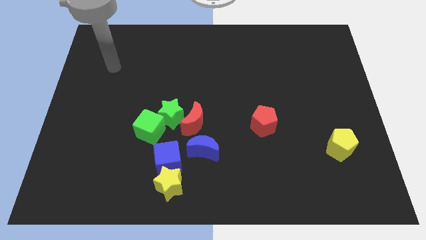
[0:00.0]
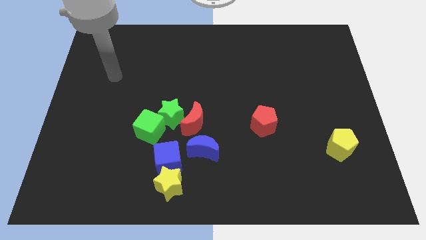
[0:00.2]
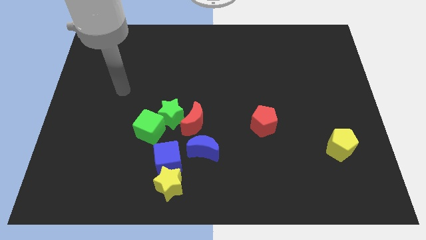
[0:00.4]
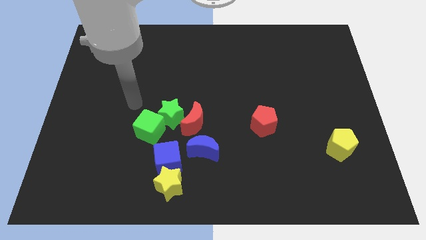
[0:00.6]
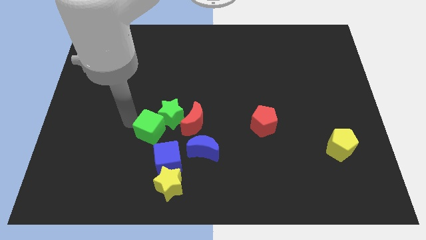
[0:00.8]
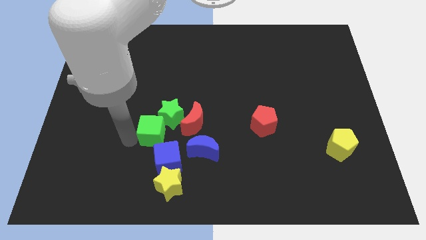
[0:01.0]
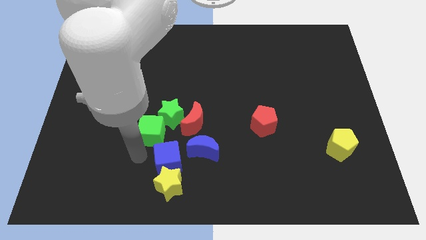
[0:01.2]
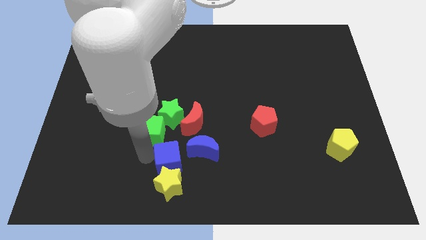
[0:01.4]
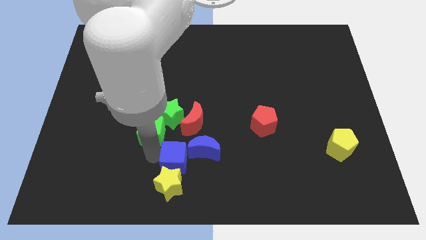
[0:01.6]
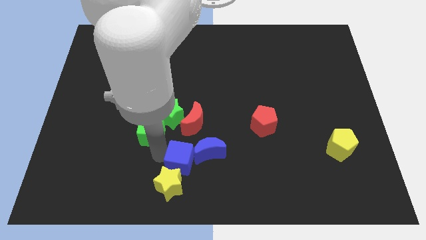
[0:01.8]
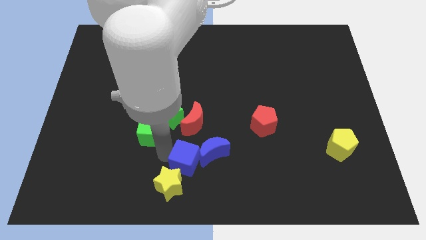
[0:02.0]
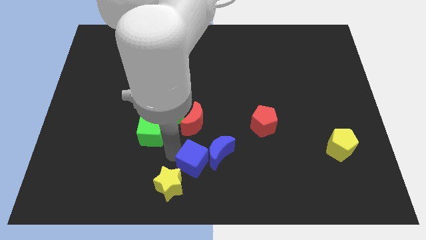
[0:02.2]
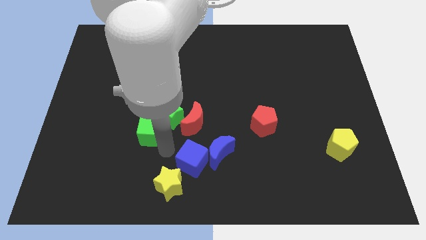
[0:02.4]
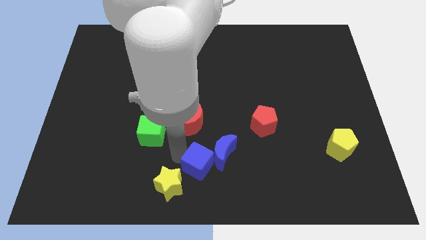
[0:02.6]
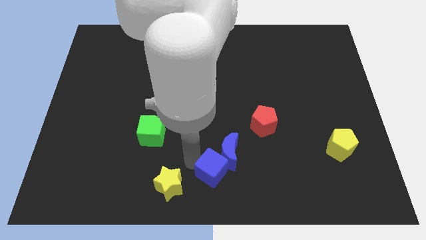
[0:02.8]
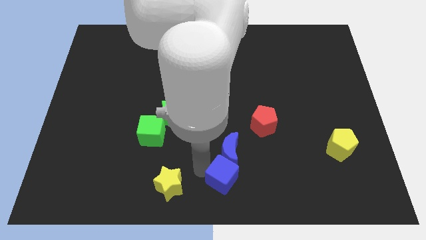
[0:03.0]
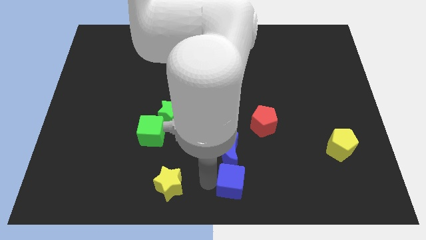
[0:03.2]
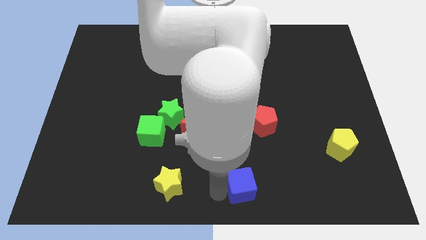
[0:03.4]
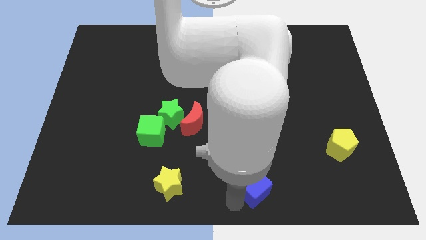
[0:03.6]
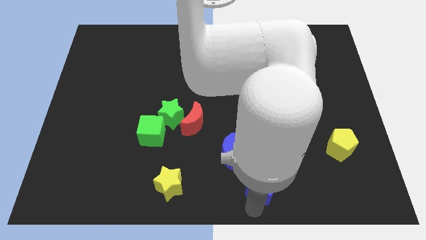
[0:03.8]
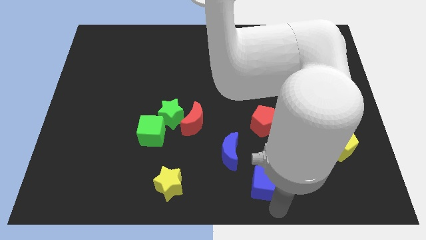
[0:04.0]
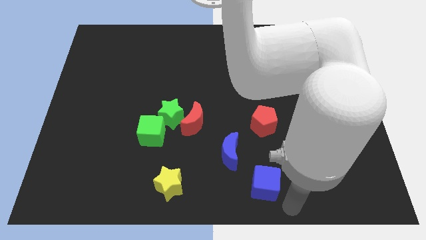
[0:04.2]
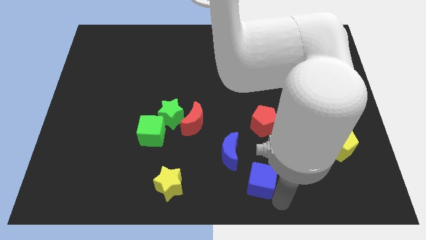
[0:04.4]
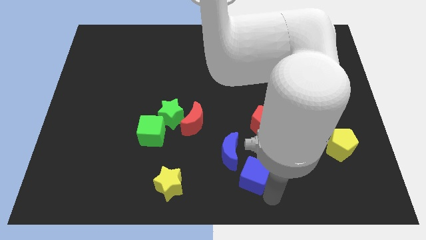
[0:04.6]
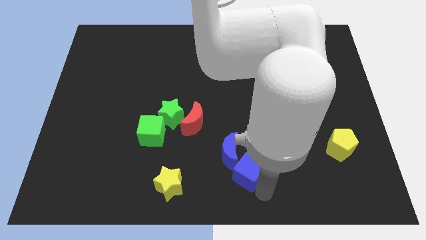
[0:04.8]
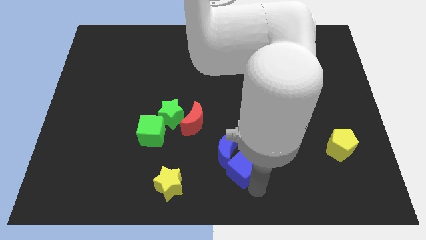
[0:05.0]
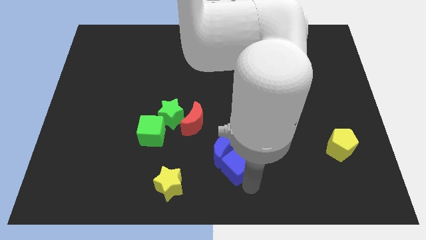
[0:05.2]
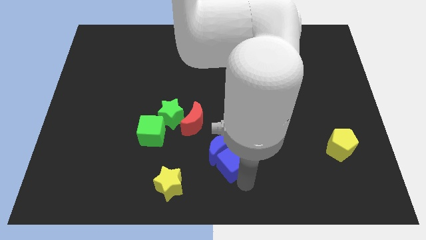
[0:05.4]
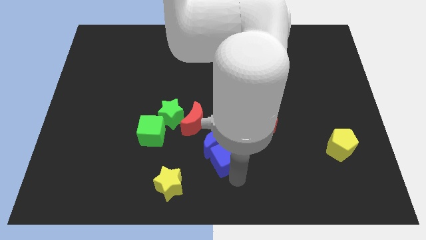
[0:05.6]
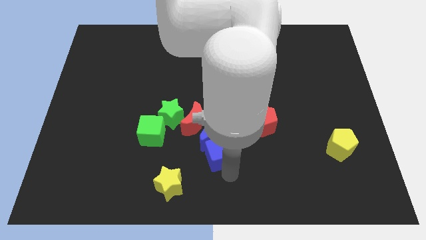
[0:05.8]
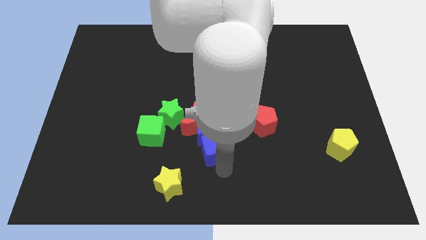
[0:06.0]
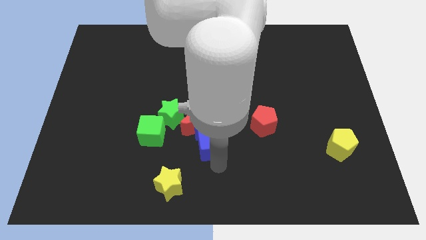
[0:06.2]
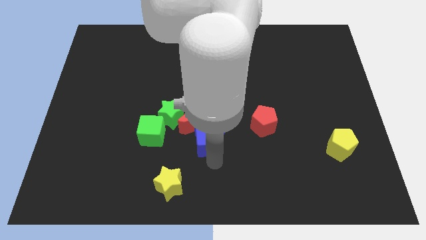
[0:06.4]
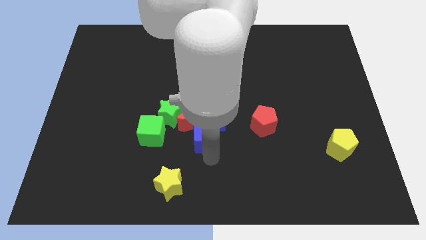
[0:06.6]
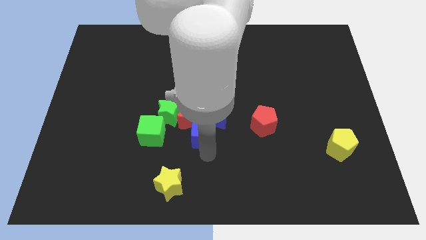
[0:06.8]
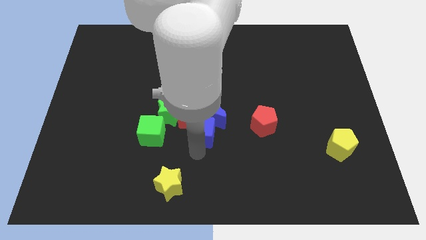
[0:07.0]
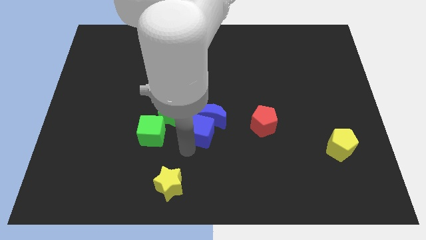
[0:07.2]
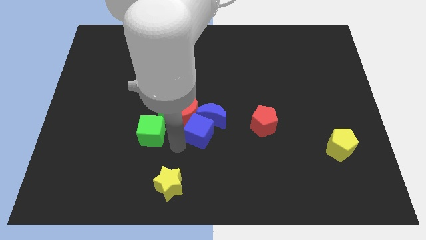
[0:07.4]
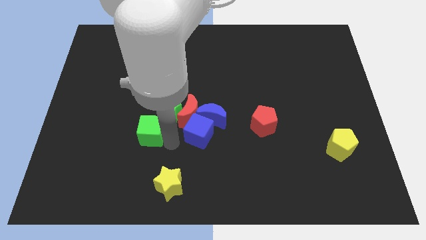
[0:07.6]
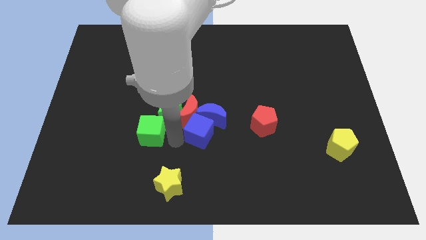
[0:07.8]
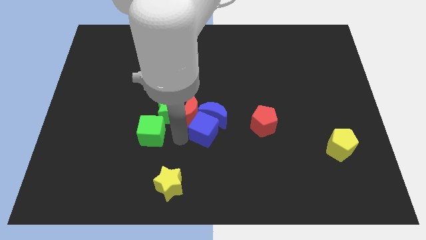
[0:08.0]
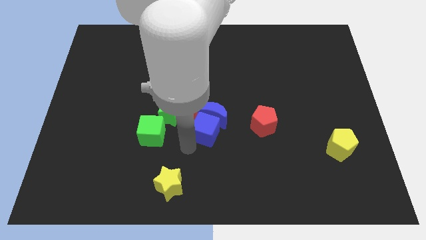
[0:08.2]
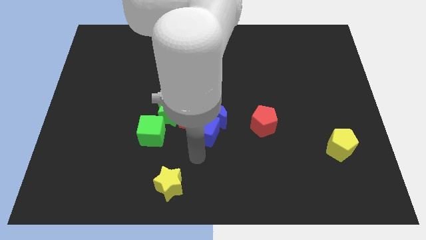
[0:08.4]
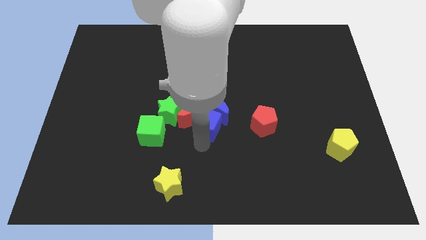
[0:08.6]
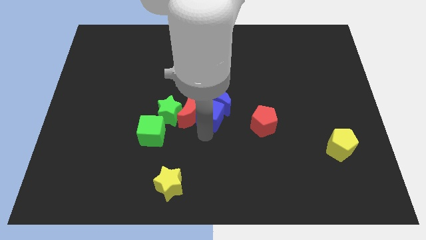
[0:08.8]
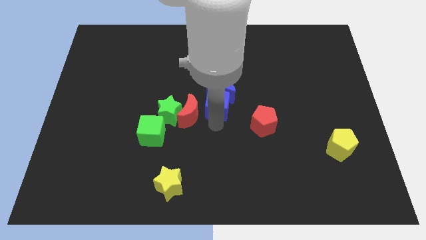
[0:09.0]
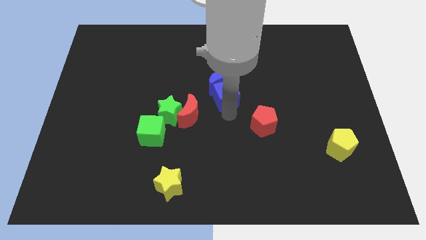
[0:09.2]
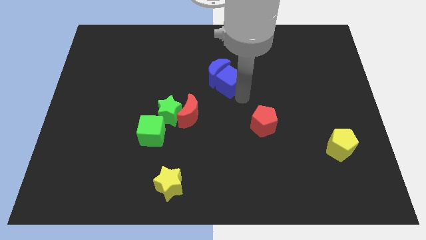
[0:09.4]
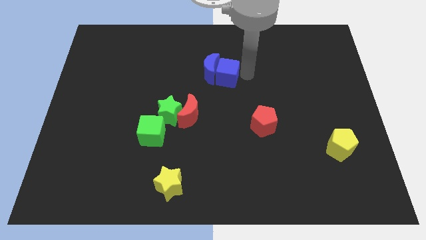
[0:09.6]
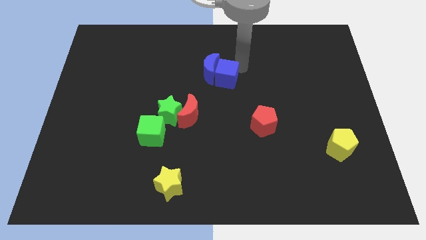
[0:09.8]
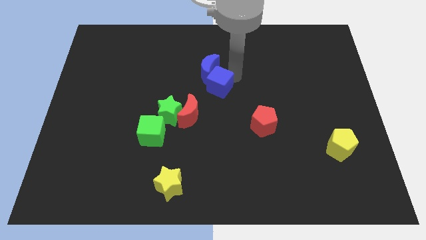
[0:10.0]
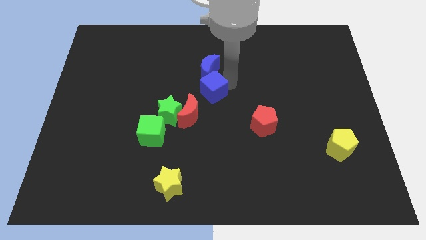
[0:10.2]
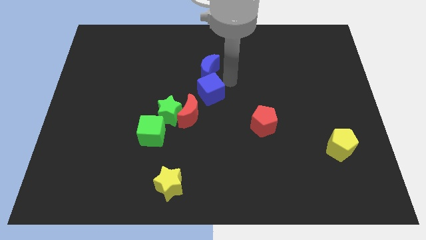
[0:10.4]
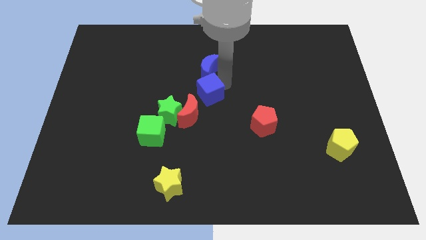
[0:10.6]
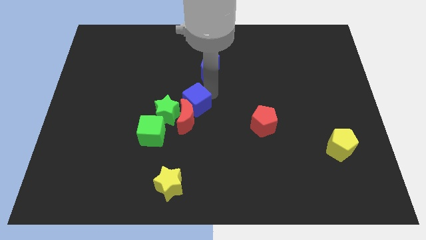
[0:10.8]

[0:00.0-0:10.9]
push the blue cube to the top right side of the green cube

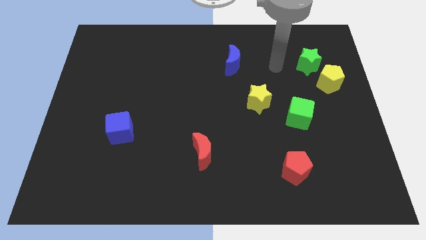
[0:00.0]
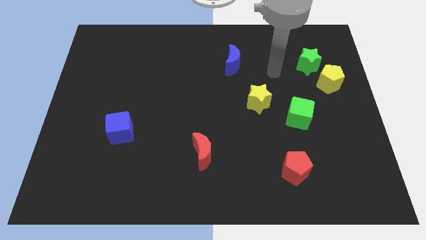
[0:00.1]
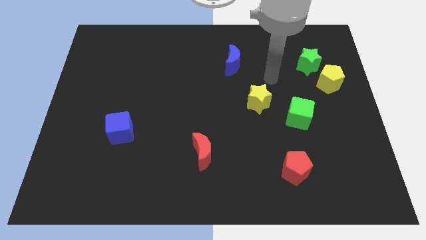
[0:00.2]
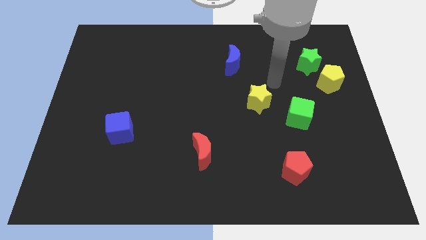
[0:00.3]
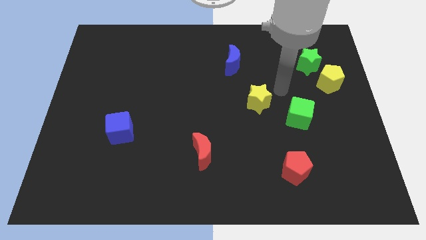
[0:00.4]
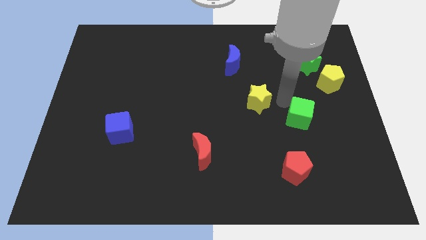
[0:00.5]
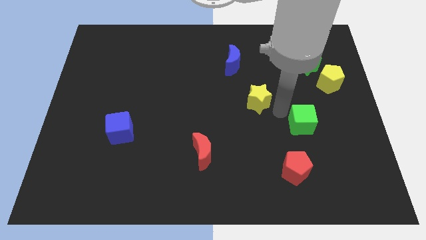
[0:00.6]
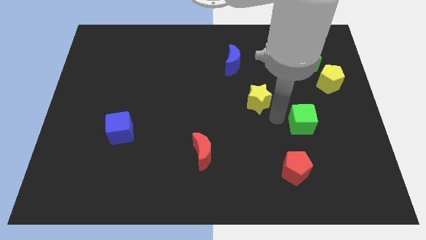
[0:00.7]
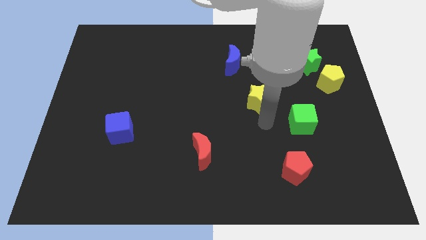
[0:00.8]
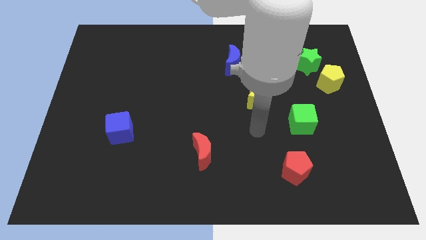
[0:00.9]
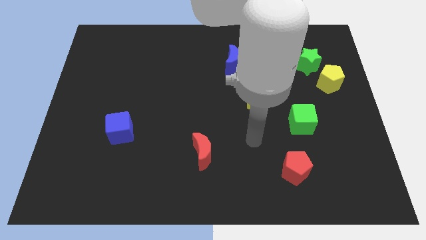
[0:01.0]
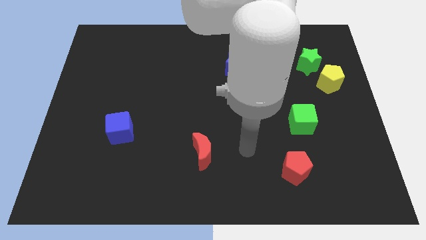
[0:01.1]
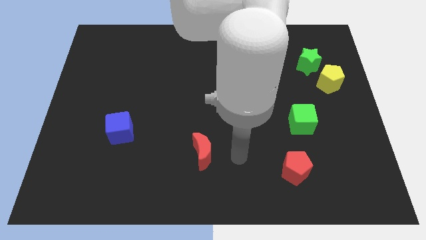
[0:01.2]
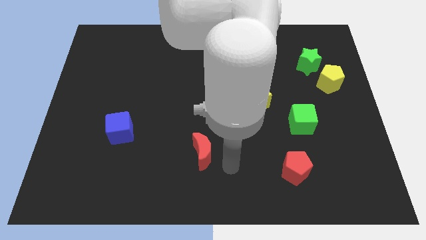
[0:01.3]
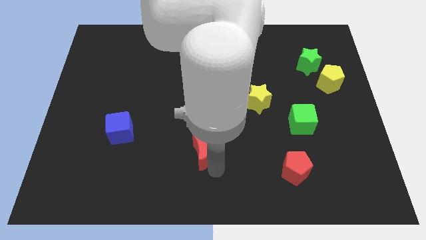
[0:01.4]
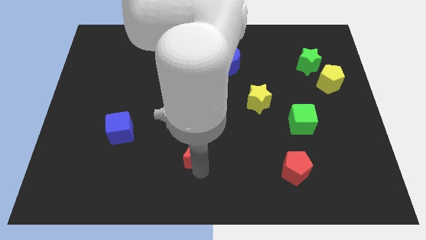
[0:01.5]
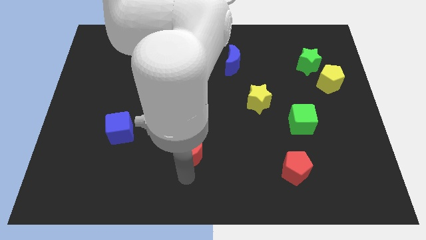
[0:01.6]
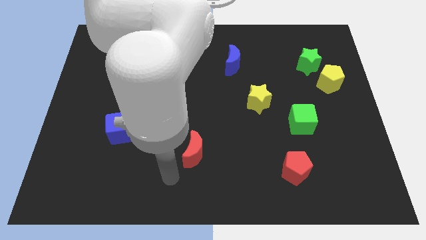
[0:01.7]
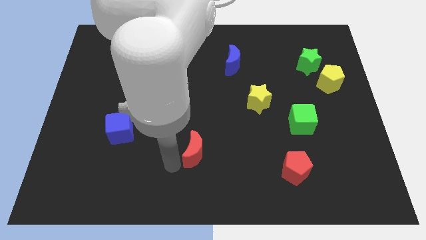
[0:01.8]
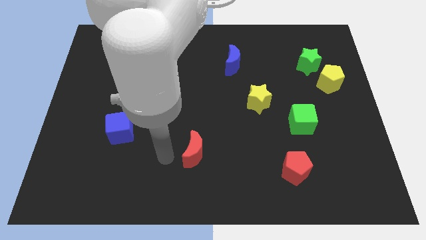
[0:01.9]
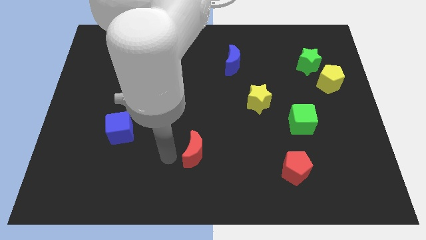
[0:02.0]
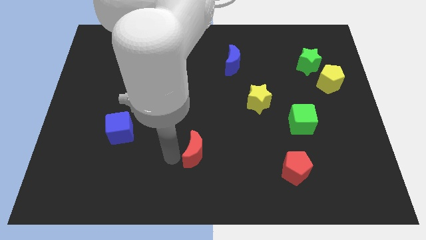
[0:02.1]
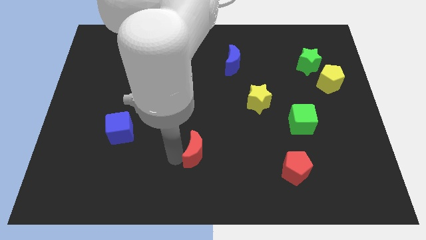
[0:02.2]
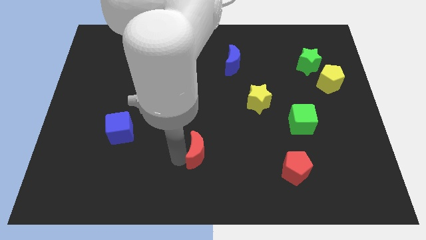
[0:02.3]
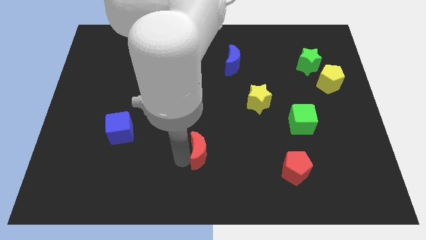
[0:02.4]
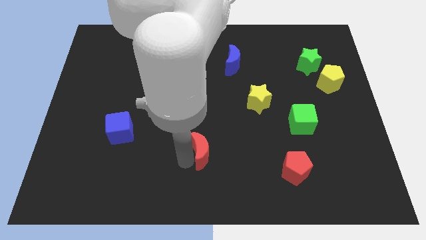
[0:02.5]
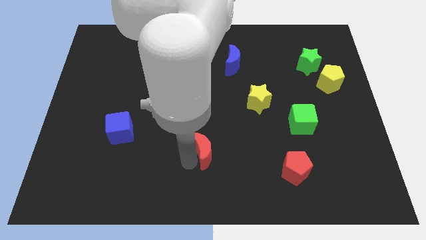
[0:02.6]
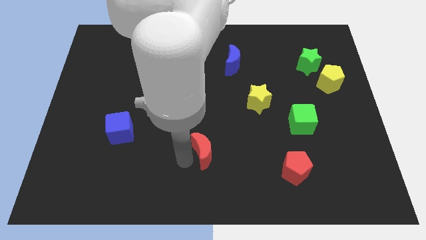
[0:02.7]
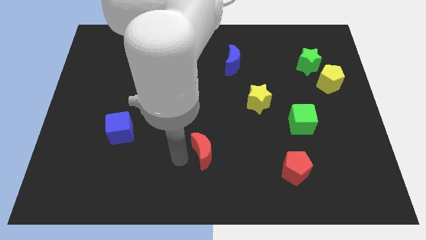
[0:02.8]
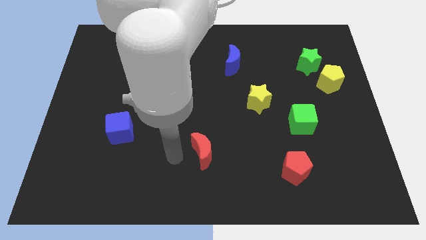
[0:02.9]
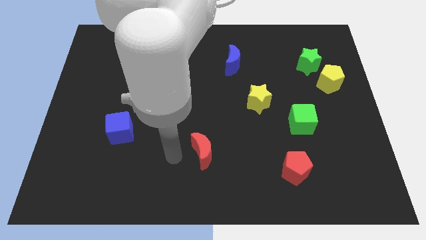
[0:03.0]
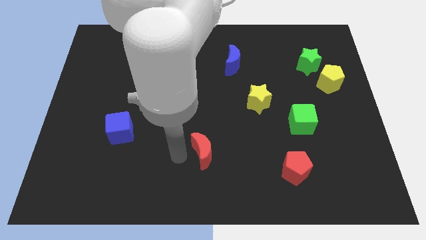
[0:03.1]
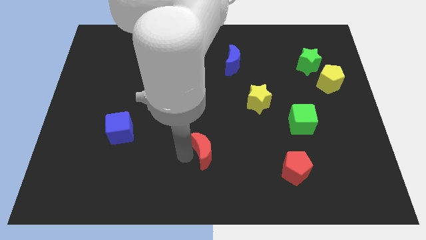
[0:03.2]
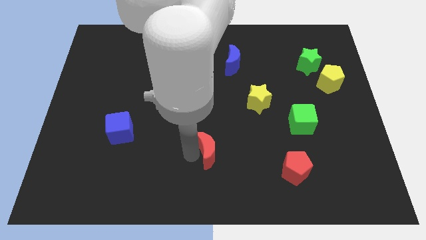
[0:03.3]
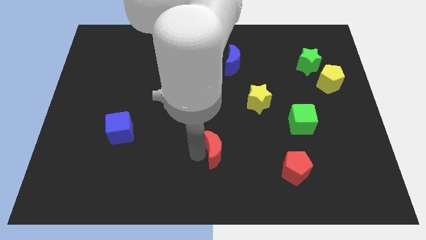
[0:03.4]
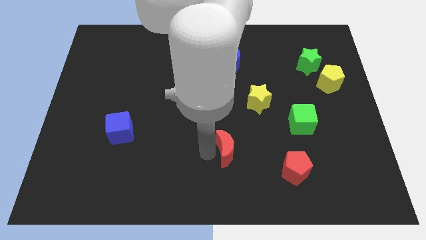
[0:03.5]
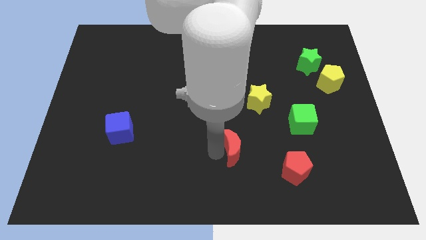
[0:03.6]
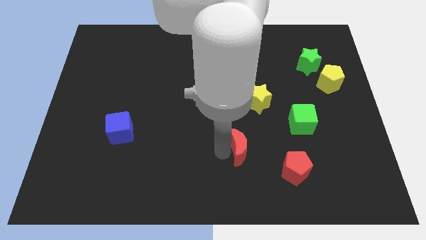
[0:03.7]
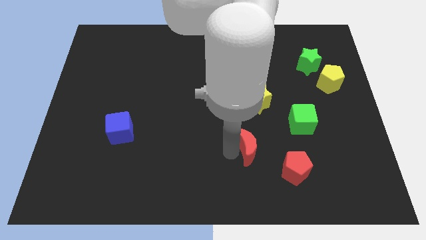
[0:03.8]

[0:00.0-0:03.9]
push the red moon below the yellow star
